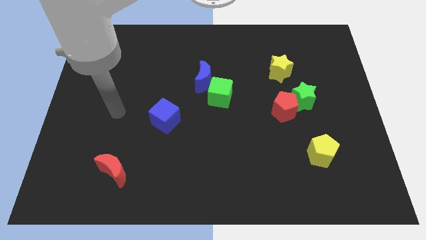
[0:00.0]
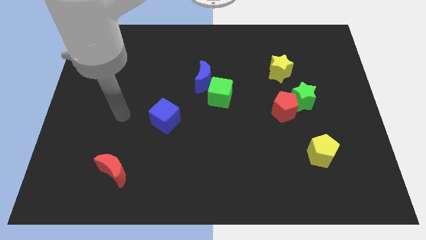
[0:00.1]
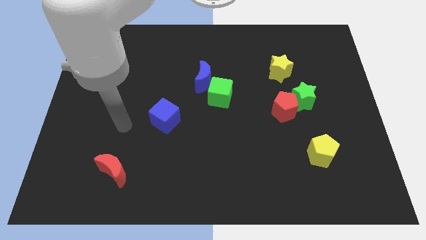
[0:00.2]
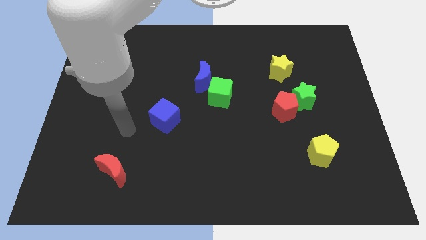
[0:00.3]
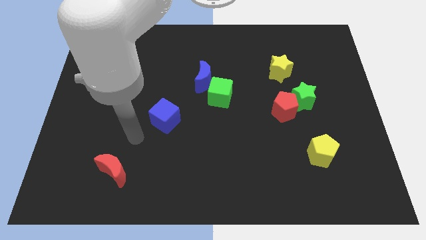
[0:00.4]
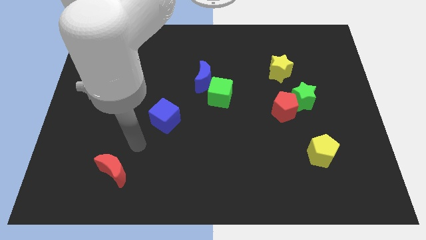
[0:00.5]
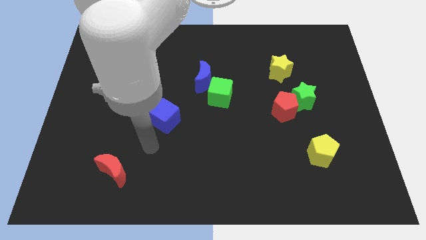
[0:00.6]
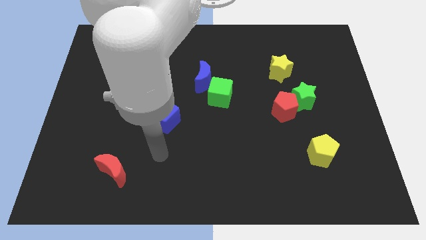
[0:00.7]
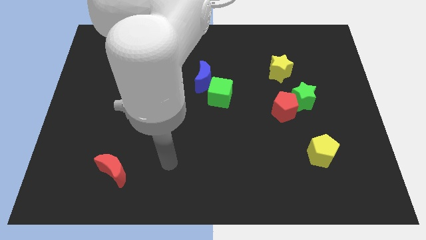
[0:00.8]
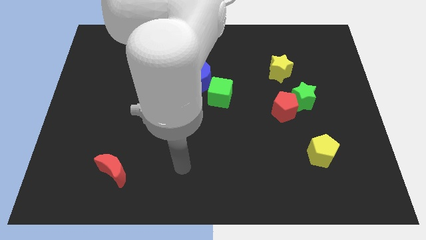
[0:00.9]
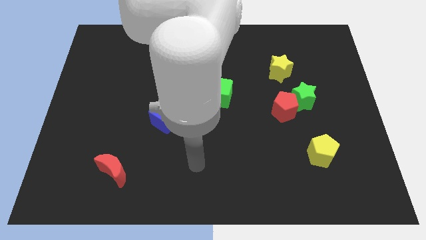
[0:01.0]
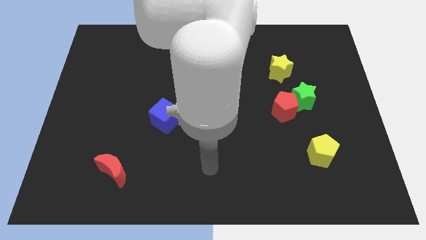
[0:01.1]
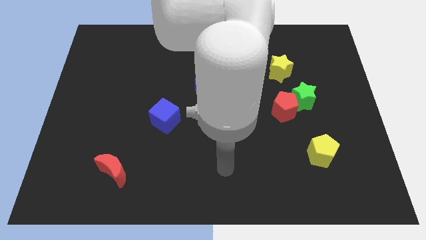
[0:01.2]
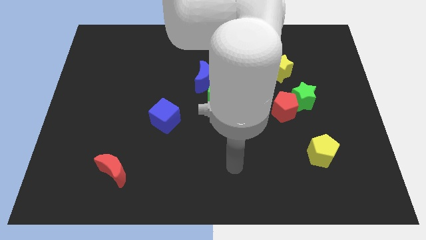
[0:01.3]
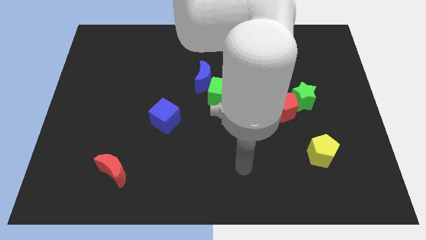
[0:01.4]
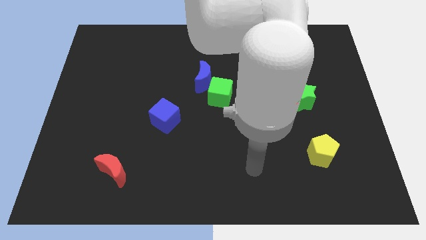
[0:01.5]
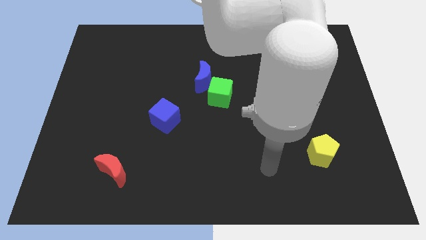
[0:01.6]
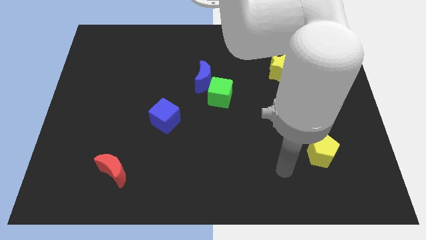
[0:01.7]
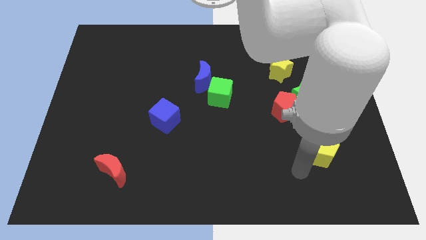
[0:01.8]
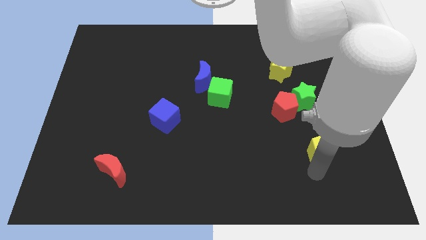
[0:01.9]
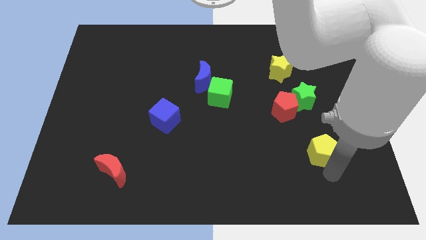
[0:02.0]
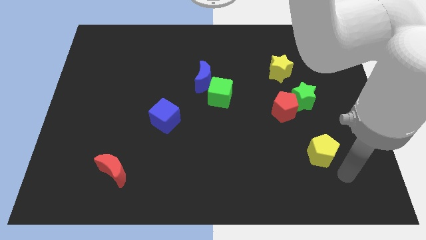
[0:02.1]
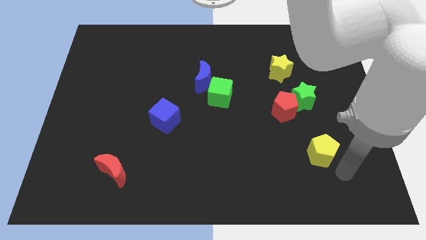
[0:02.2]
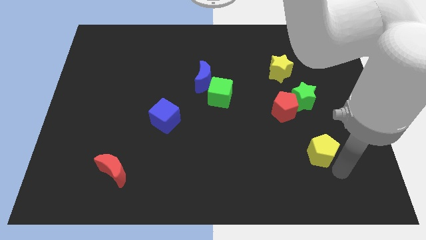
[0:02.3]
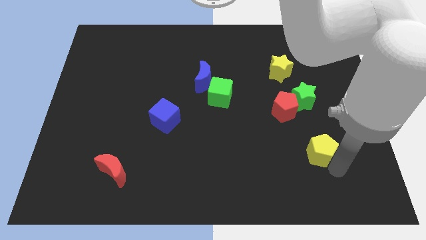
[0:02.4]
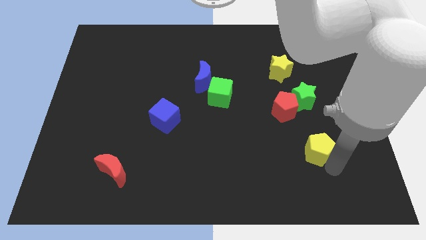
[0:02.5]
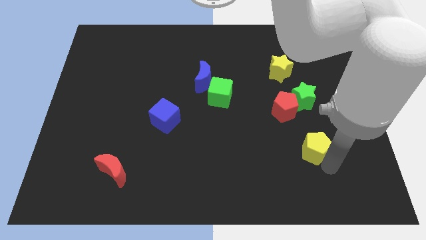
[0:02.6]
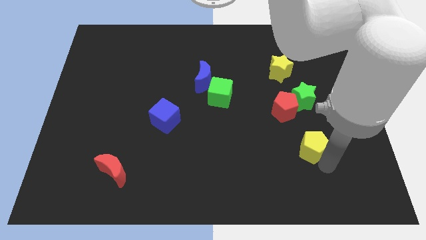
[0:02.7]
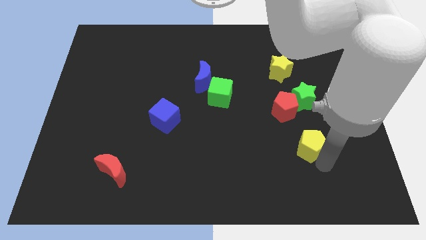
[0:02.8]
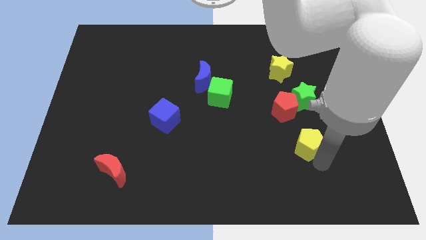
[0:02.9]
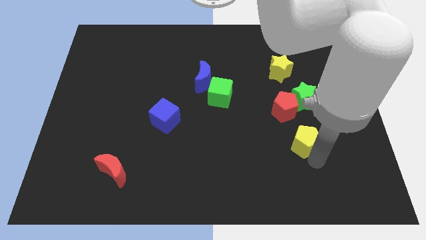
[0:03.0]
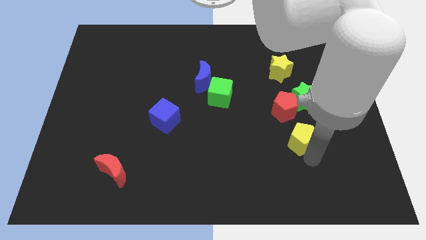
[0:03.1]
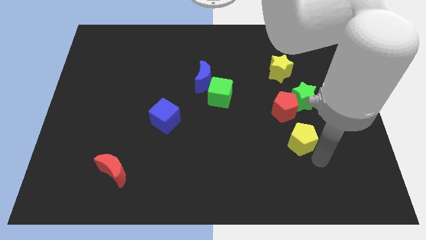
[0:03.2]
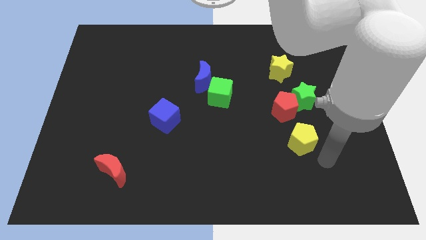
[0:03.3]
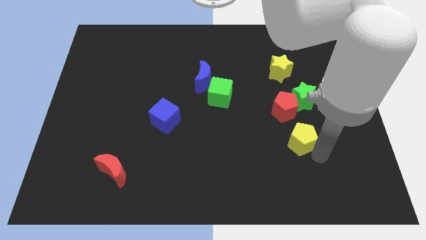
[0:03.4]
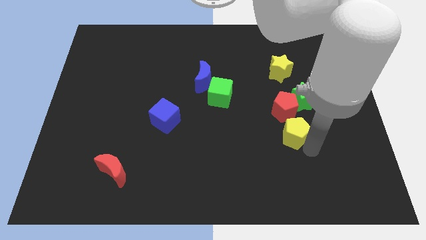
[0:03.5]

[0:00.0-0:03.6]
push the yellow pentagon up and left diagonally a little

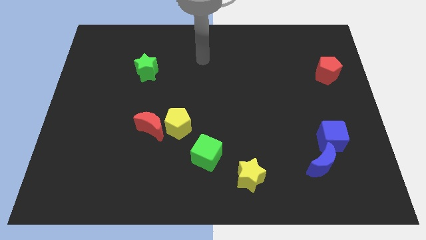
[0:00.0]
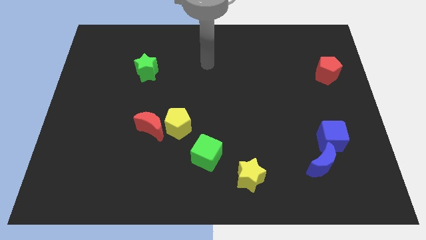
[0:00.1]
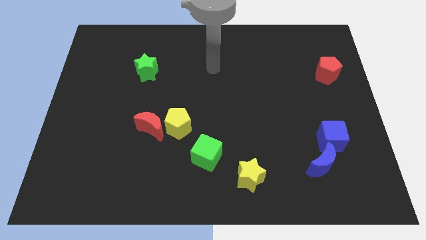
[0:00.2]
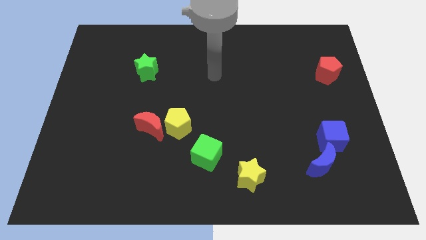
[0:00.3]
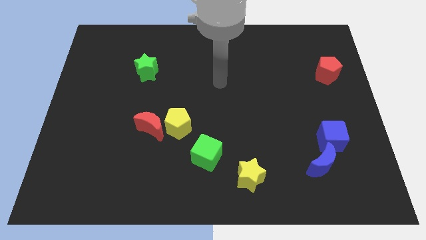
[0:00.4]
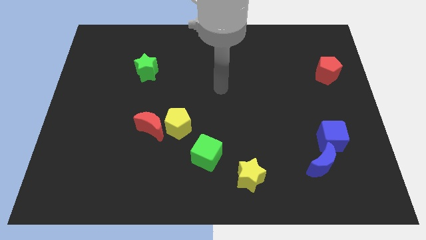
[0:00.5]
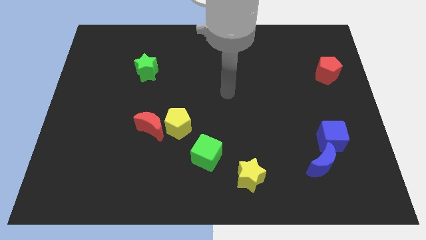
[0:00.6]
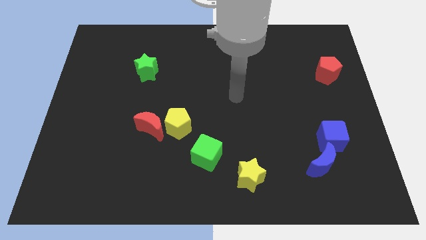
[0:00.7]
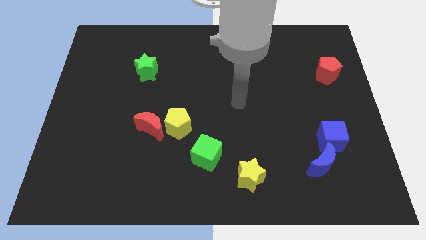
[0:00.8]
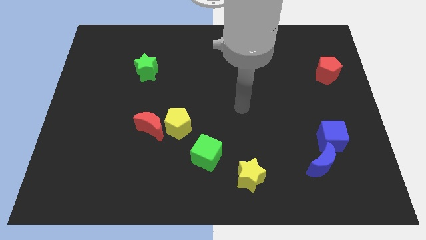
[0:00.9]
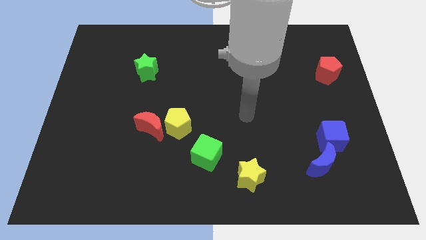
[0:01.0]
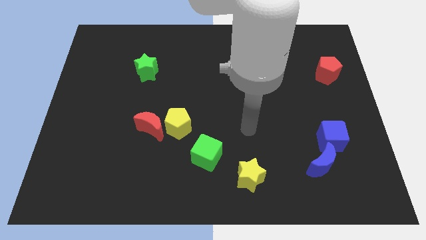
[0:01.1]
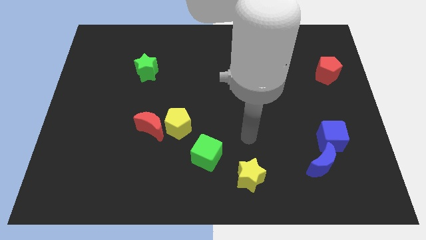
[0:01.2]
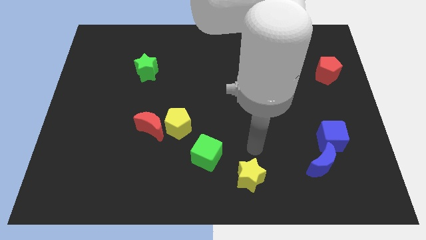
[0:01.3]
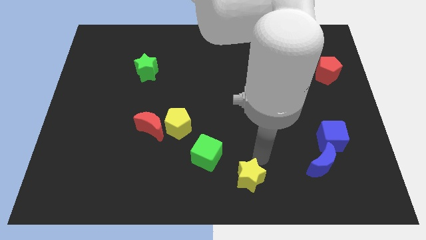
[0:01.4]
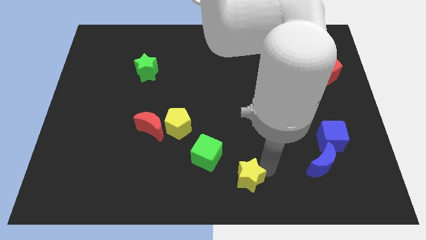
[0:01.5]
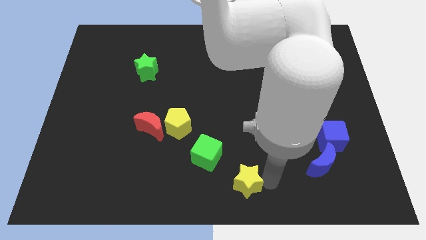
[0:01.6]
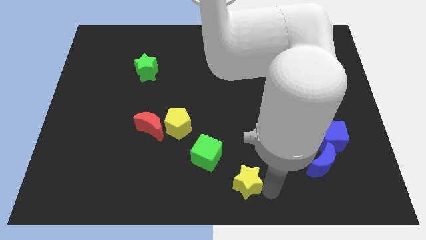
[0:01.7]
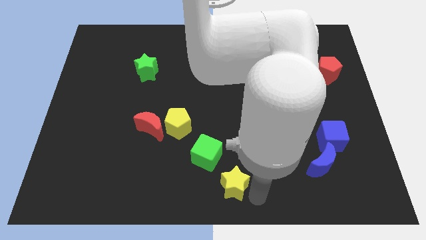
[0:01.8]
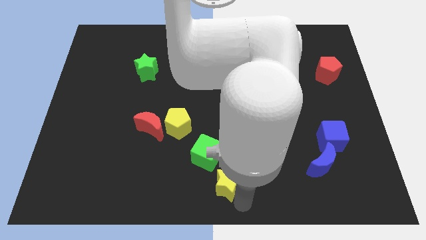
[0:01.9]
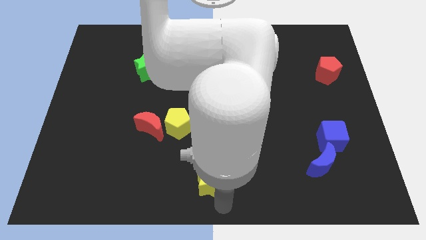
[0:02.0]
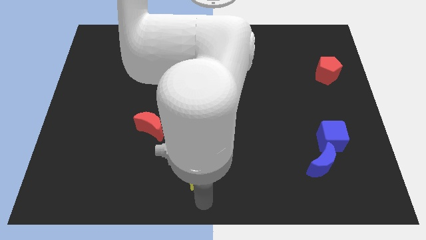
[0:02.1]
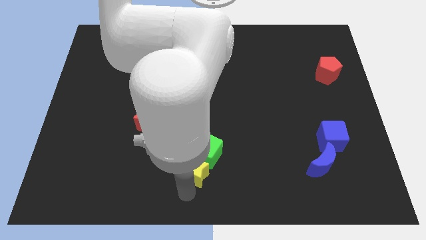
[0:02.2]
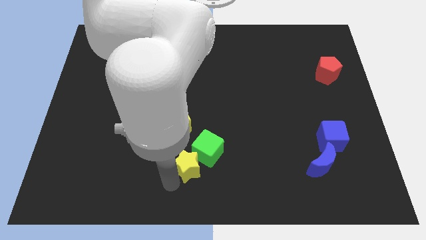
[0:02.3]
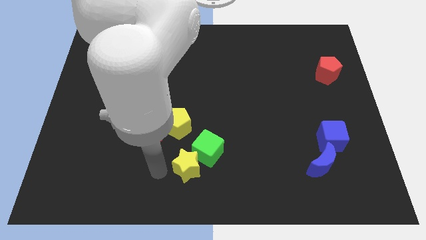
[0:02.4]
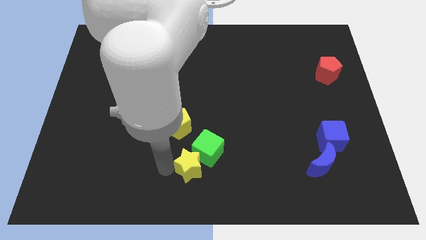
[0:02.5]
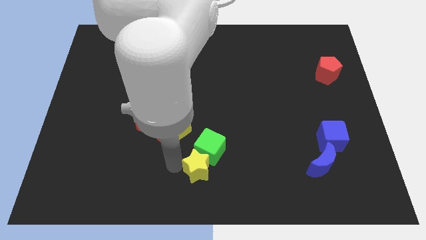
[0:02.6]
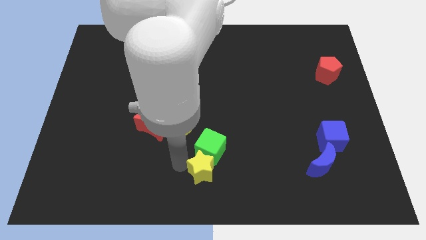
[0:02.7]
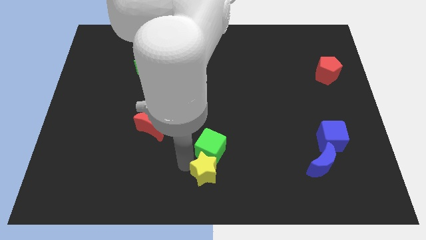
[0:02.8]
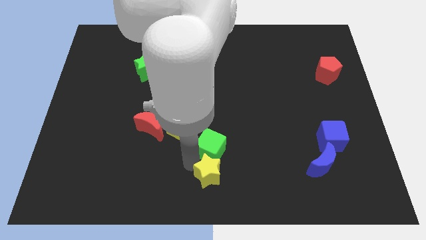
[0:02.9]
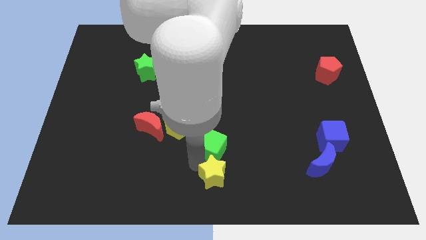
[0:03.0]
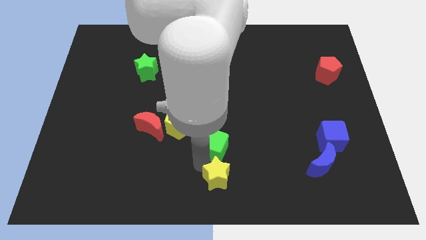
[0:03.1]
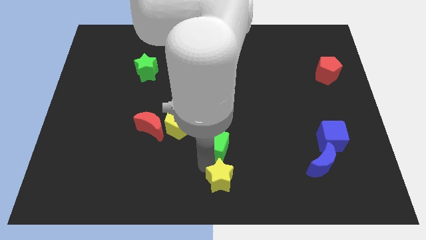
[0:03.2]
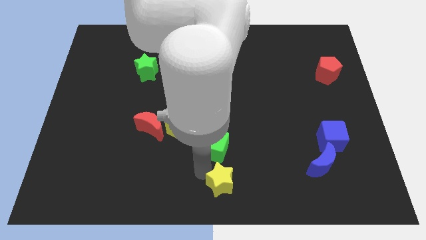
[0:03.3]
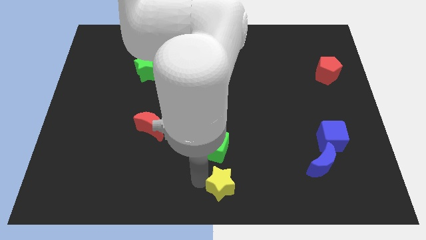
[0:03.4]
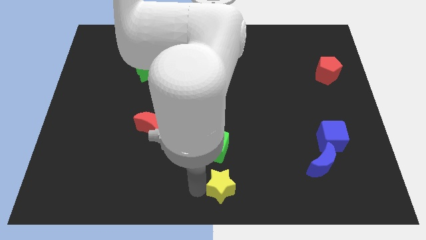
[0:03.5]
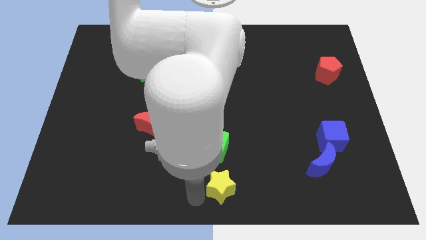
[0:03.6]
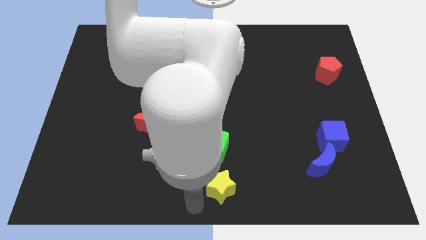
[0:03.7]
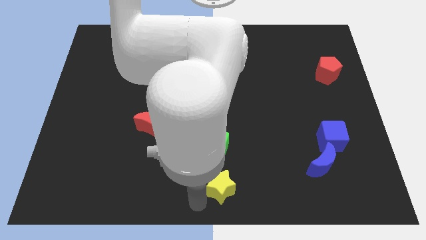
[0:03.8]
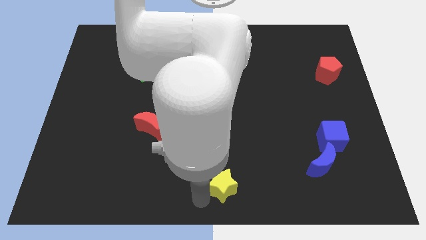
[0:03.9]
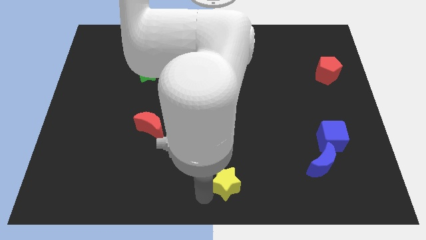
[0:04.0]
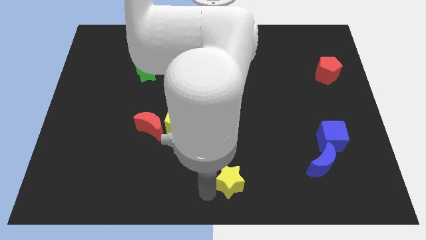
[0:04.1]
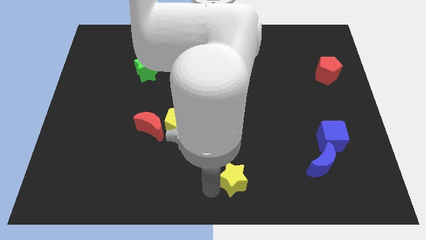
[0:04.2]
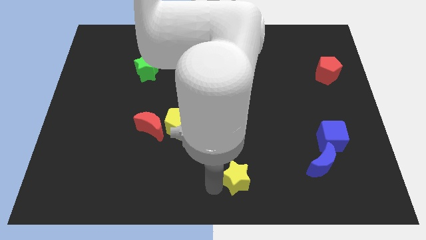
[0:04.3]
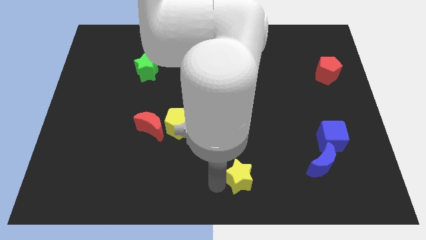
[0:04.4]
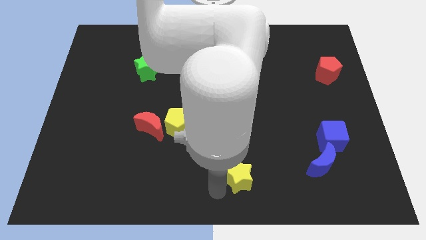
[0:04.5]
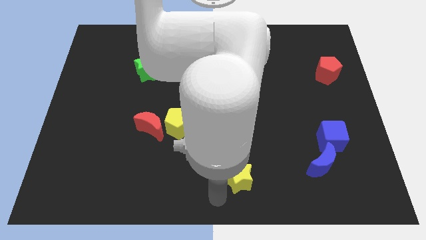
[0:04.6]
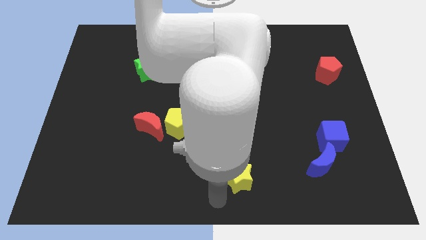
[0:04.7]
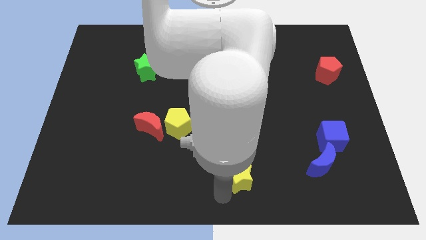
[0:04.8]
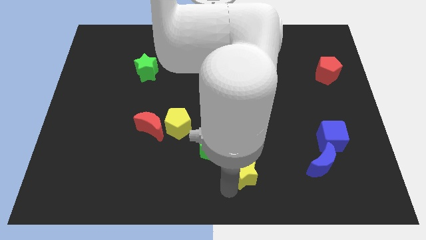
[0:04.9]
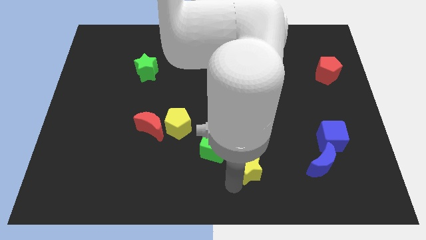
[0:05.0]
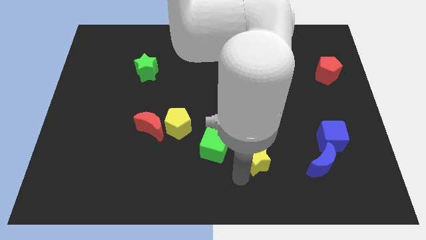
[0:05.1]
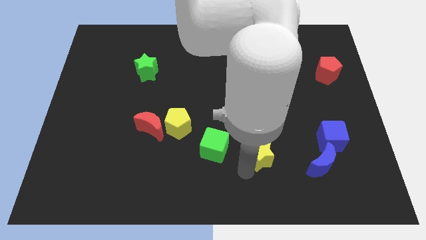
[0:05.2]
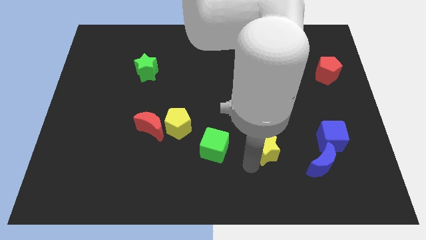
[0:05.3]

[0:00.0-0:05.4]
slide the yellow star up and right diagonally slightly
